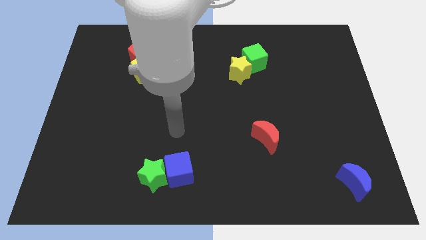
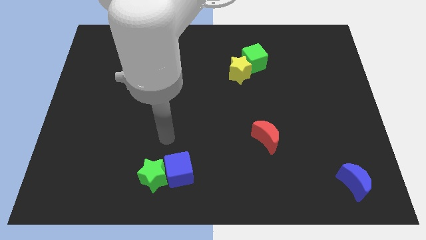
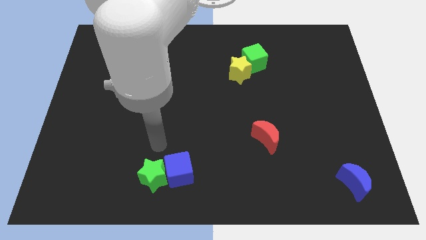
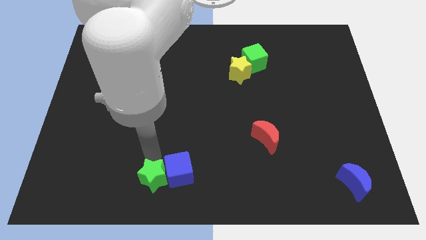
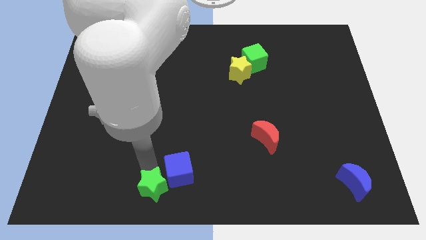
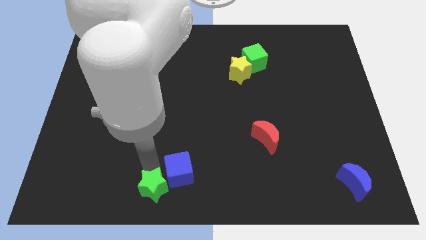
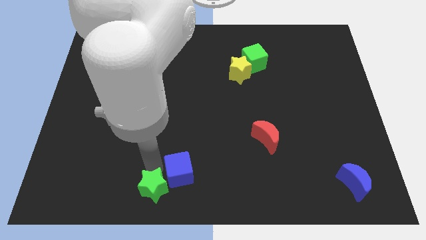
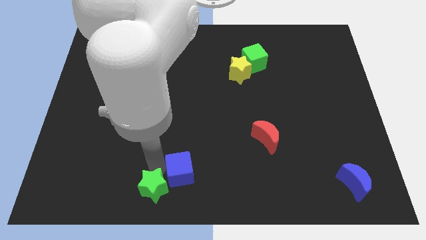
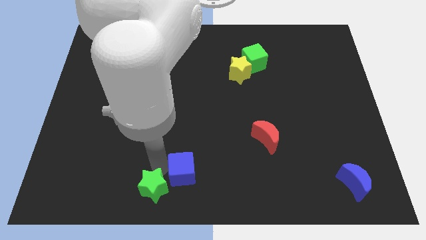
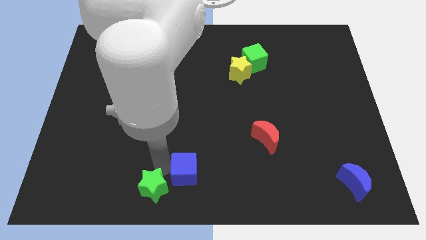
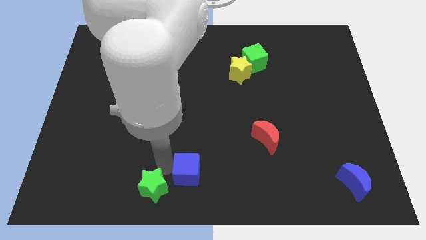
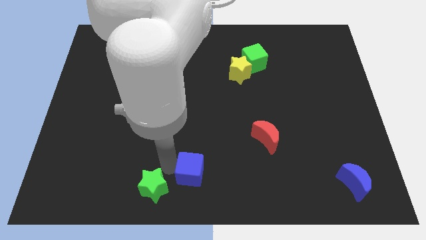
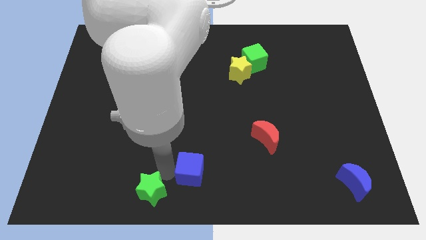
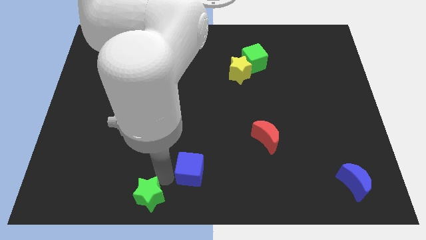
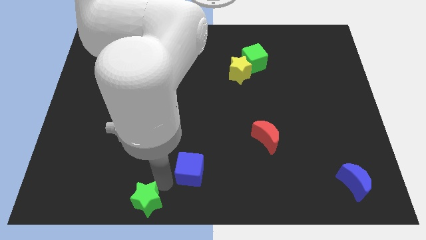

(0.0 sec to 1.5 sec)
pull the blue cube apart from the green star

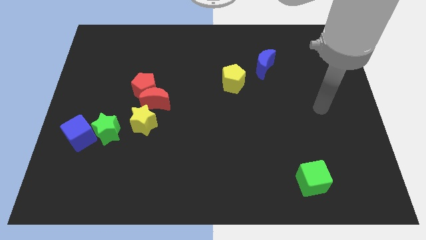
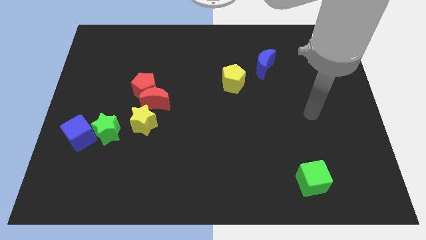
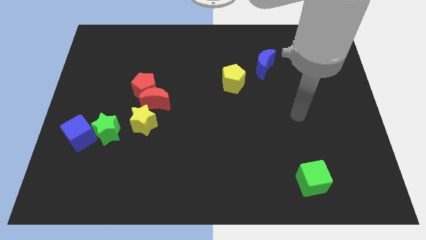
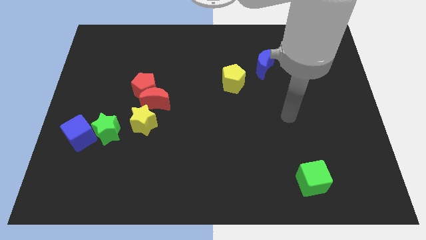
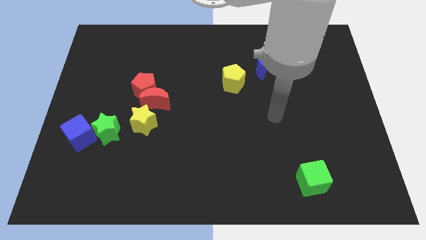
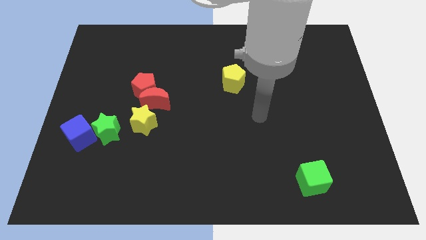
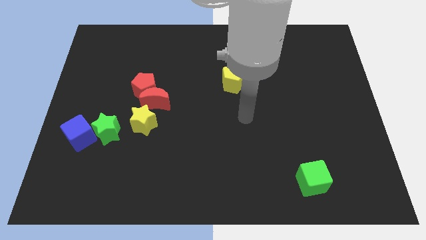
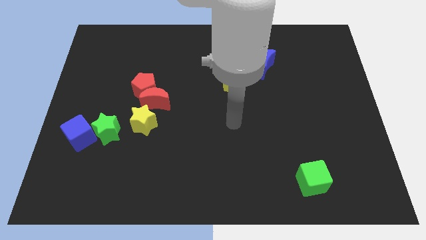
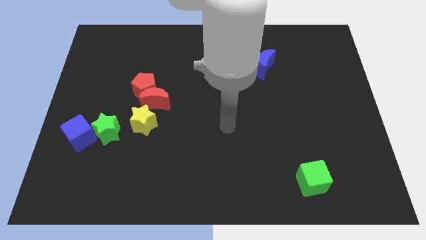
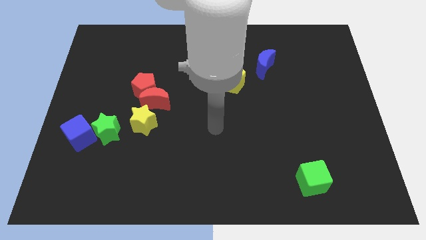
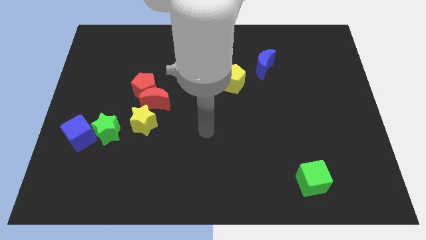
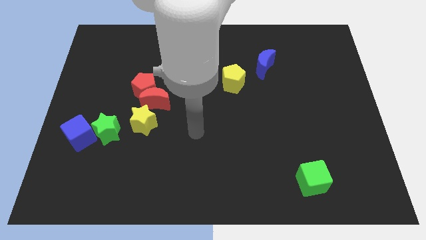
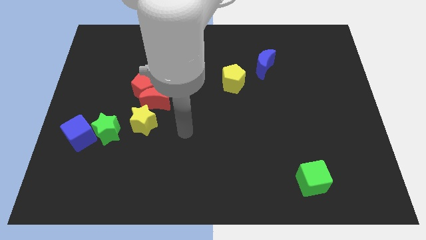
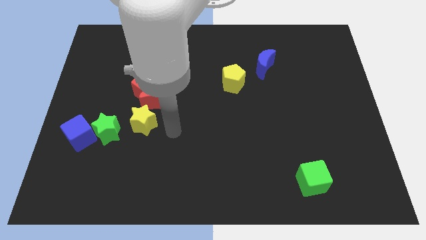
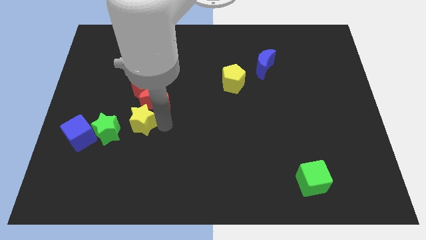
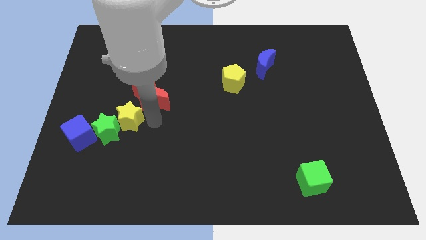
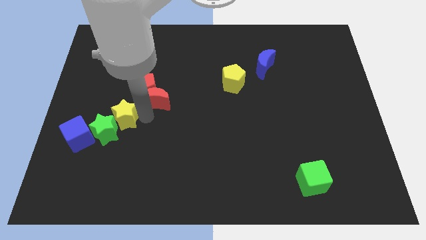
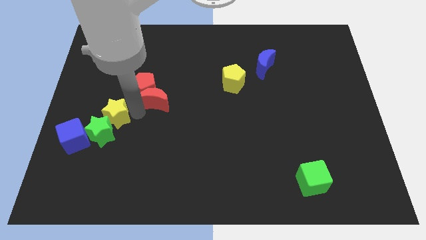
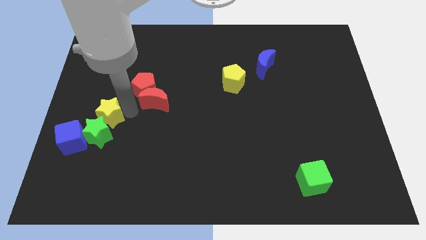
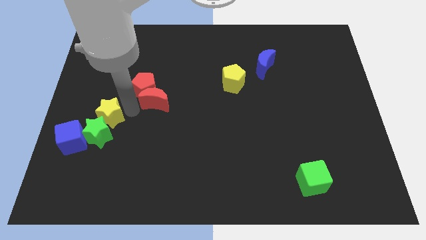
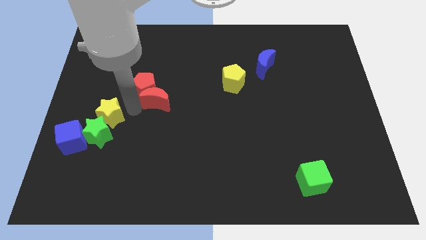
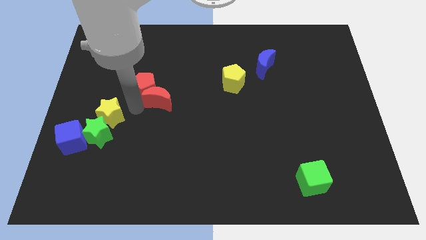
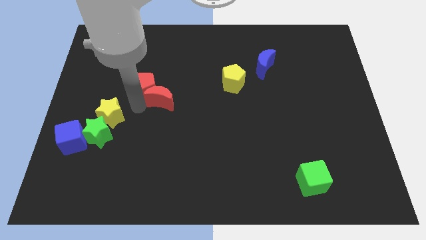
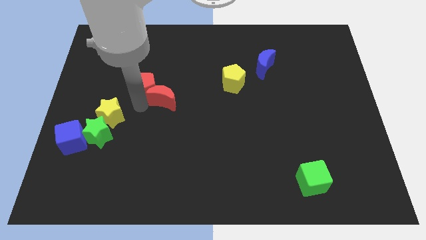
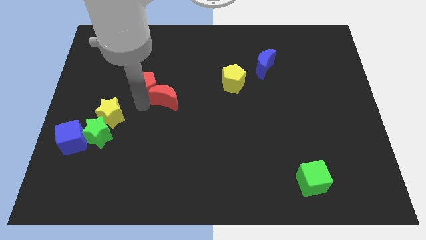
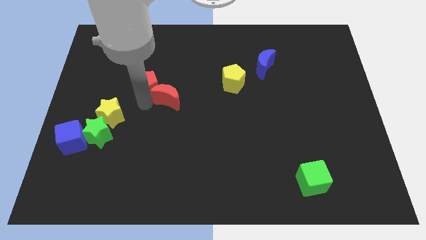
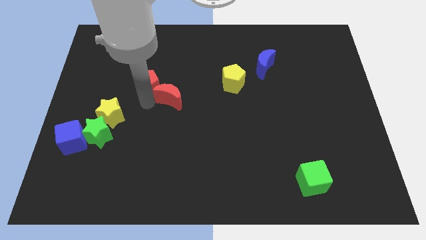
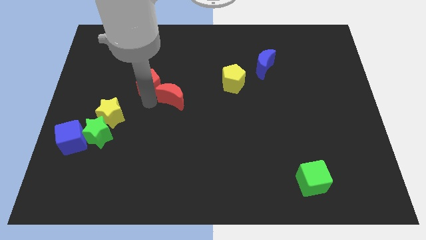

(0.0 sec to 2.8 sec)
move the red moon away from the red pentagon and yellow star

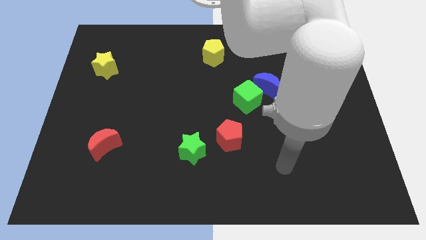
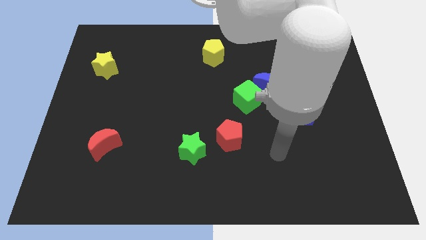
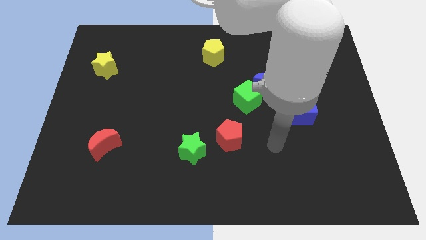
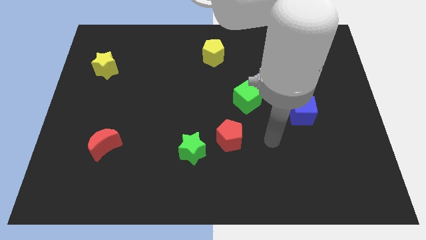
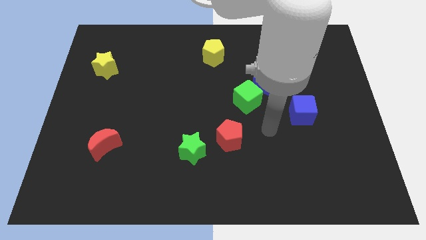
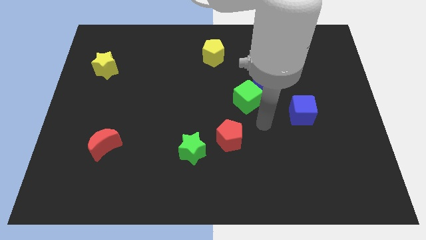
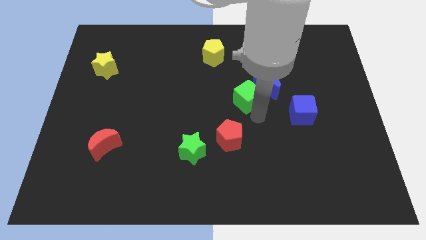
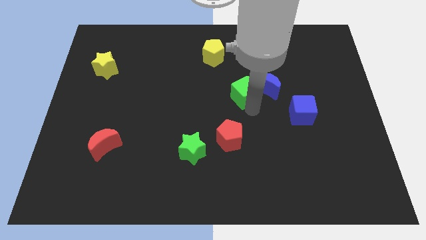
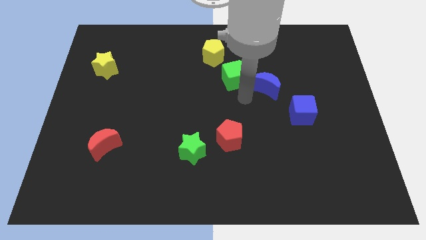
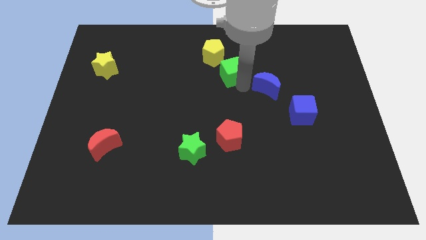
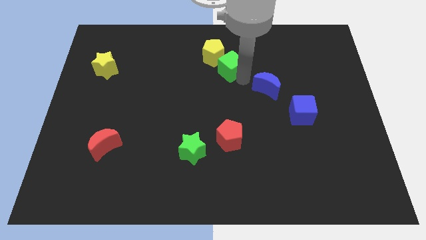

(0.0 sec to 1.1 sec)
separate the blue moon from the green cube

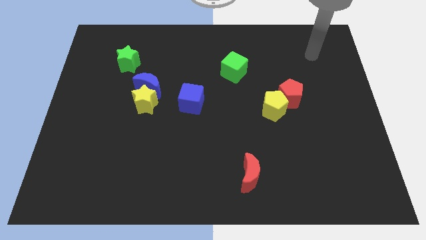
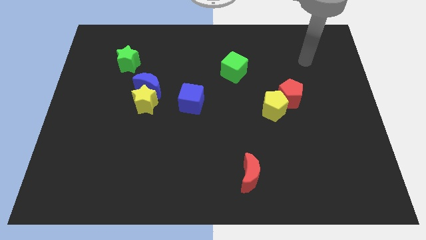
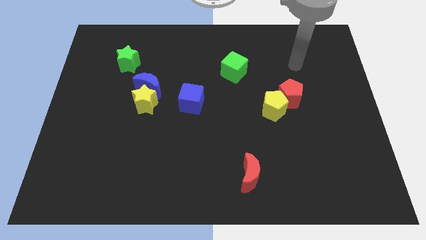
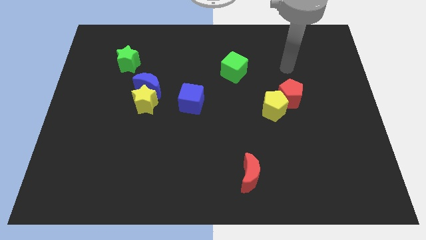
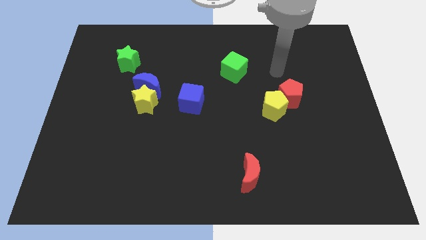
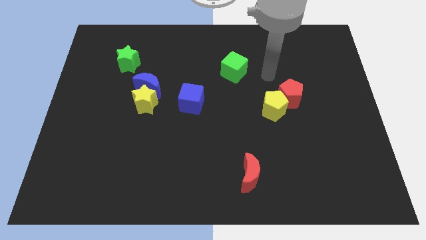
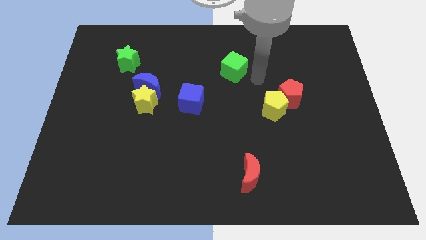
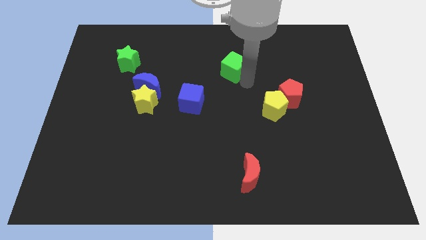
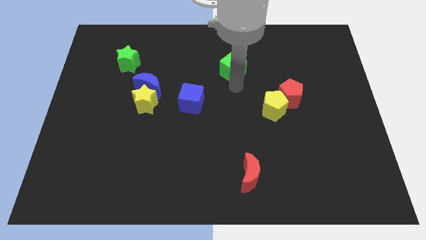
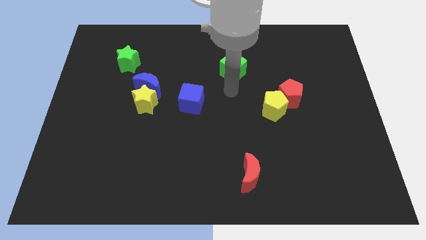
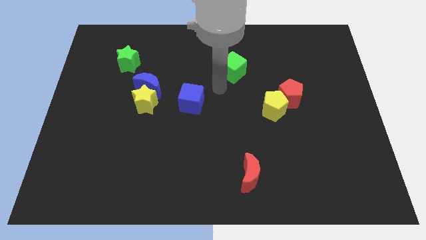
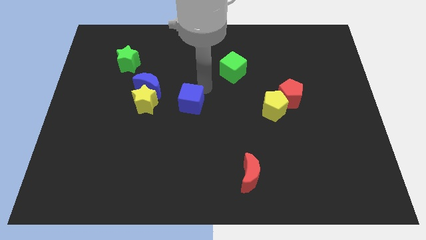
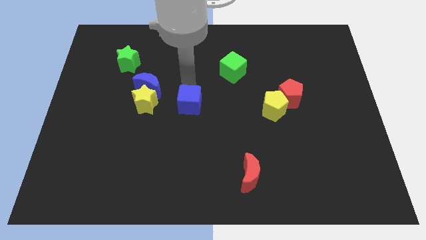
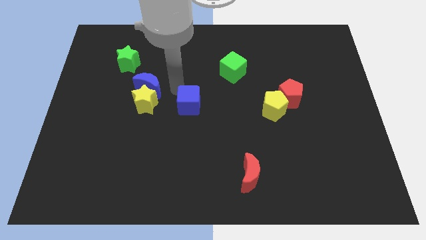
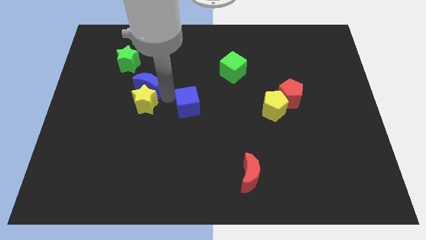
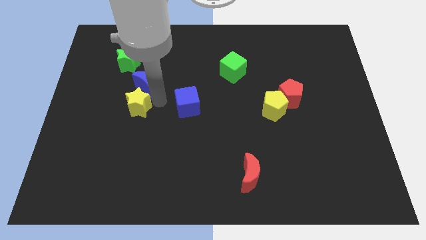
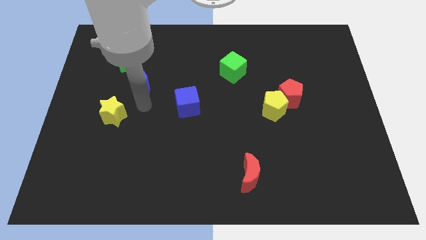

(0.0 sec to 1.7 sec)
separate the blue moon from the yellow star

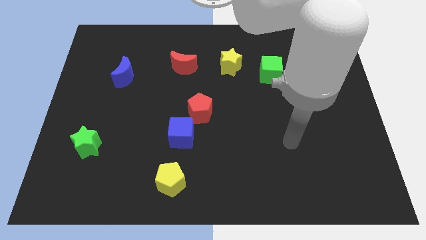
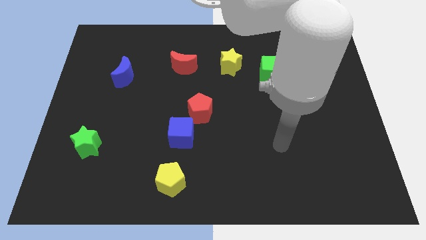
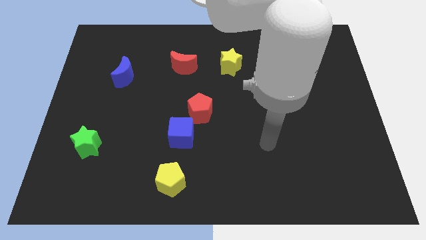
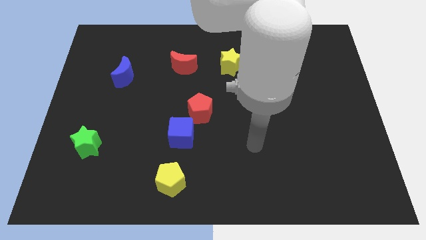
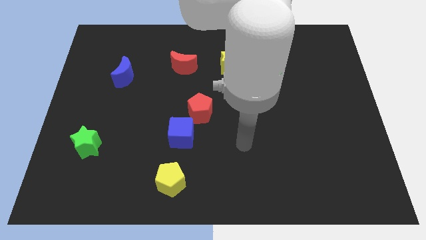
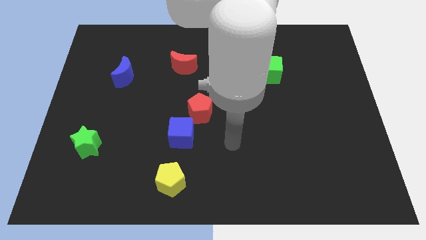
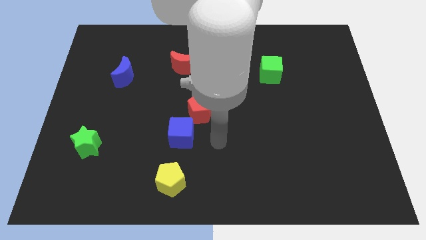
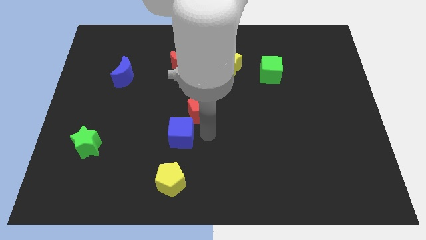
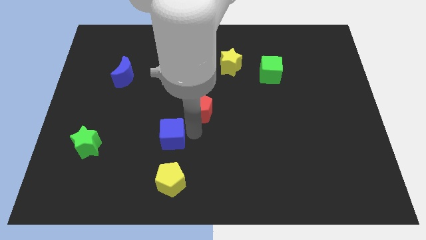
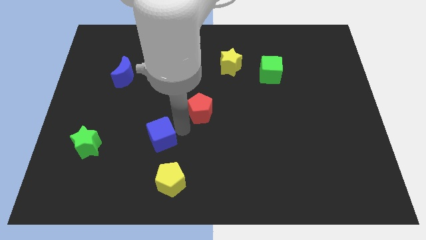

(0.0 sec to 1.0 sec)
separate the red pentagon from the blue cube

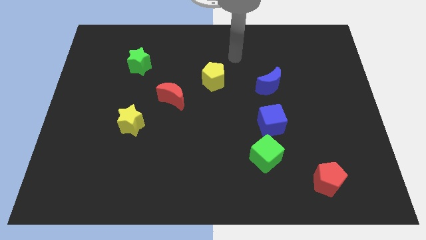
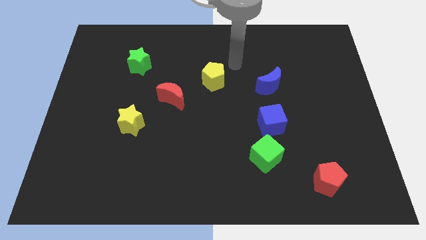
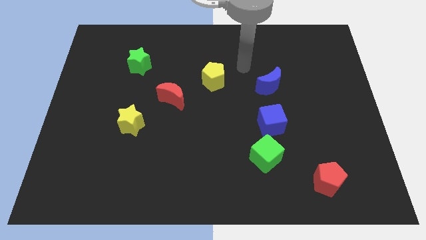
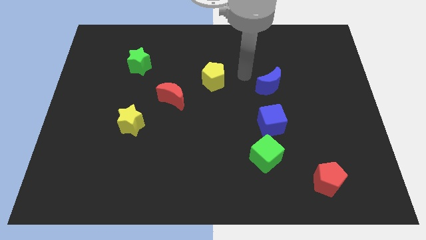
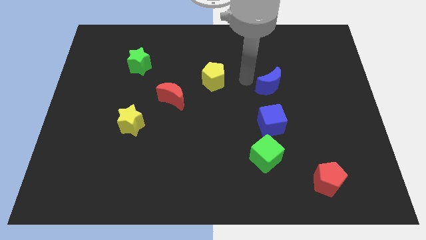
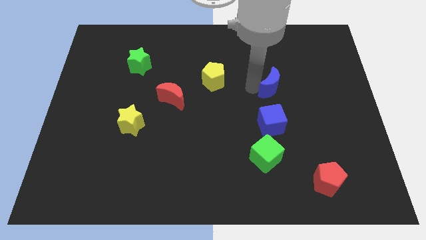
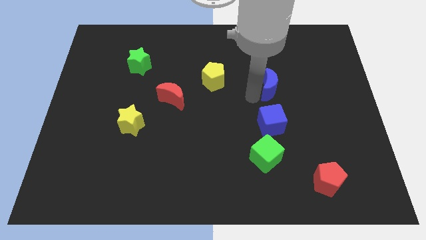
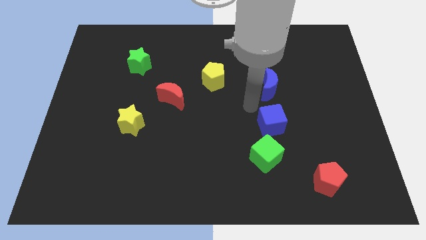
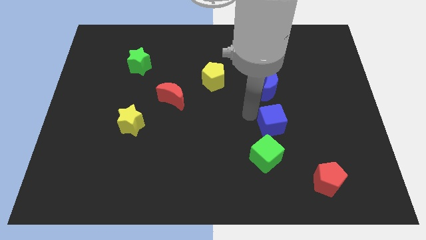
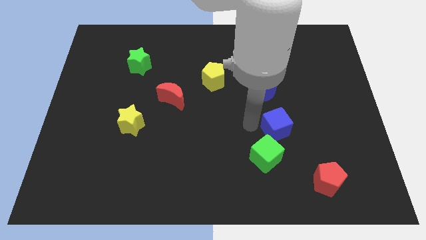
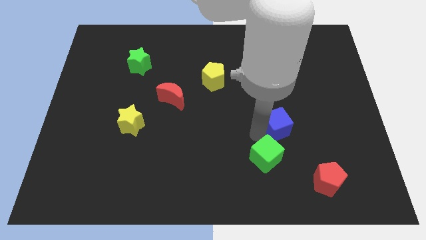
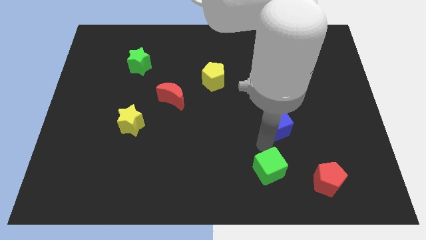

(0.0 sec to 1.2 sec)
separate the blue cube from the green cube

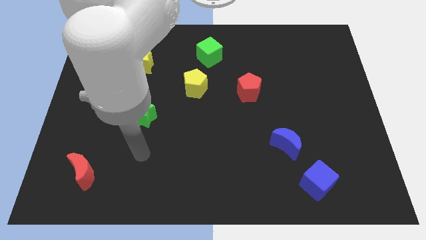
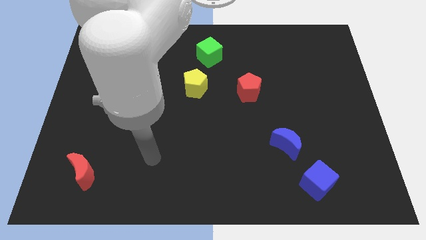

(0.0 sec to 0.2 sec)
move the blue moon away from the blue cube
